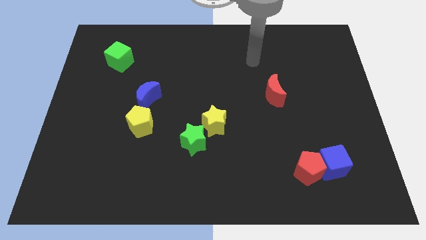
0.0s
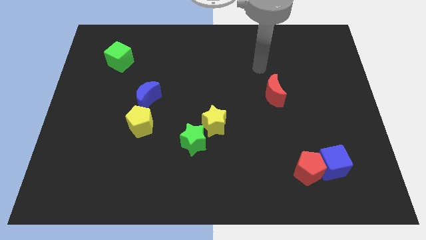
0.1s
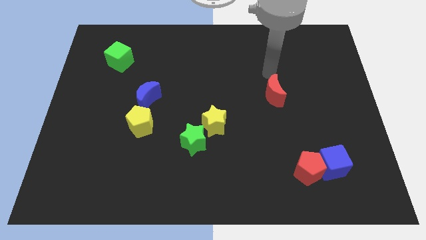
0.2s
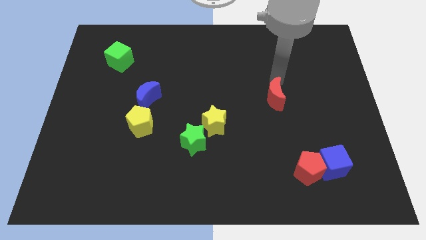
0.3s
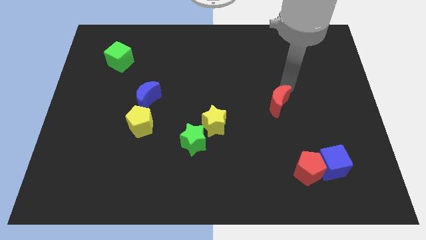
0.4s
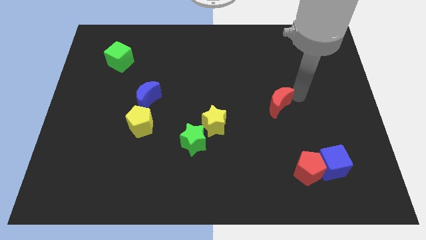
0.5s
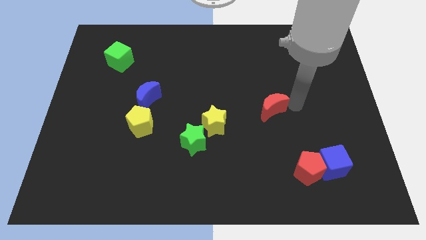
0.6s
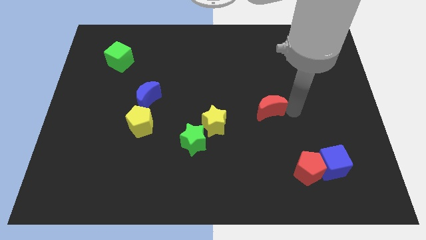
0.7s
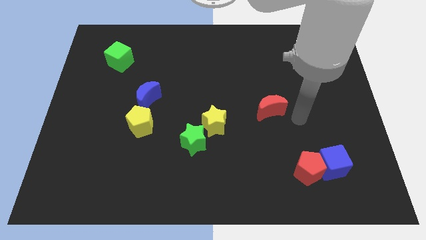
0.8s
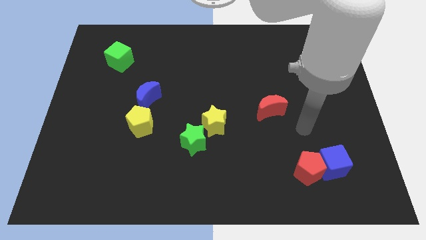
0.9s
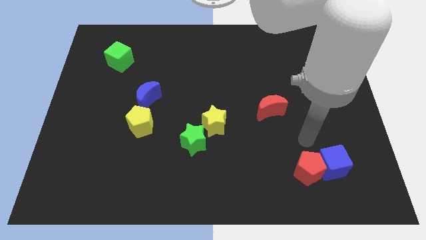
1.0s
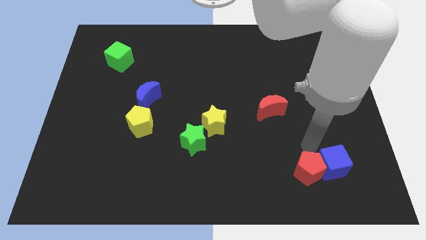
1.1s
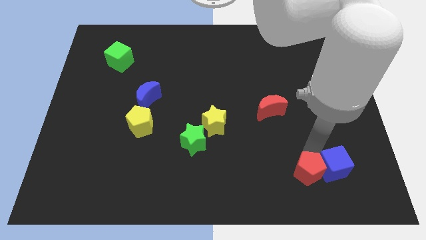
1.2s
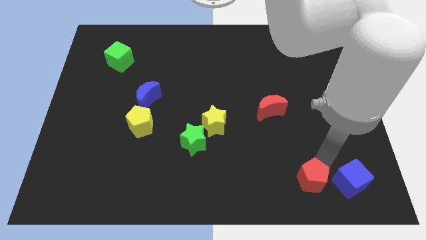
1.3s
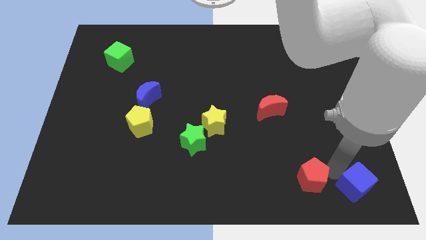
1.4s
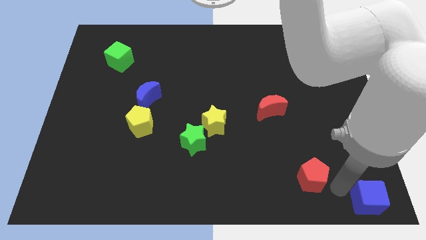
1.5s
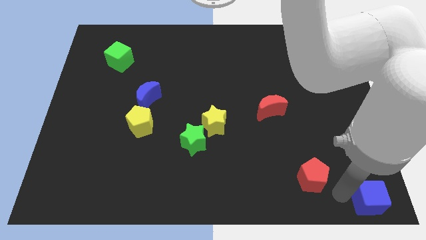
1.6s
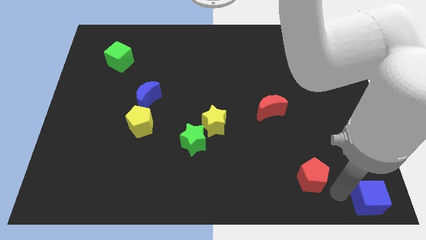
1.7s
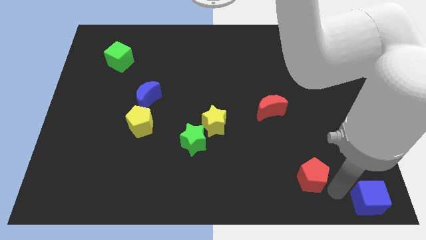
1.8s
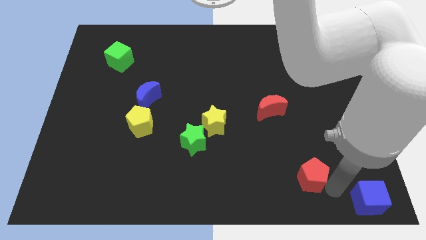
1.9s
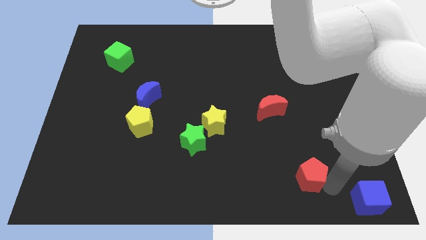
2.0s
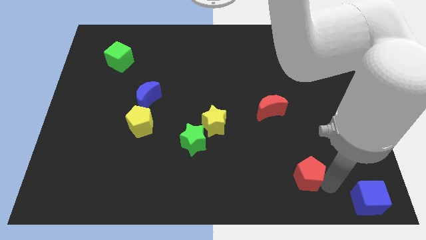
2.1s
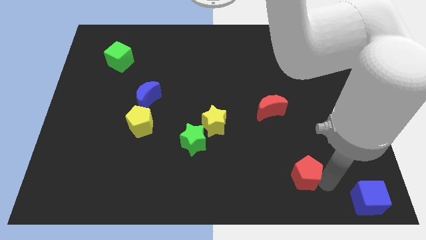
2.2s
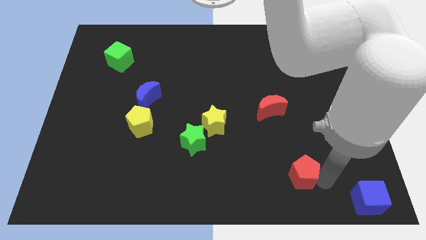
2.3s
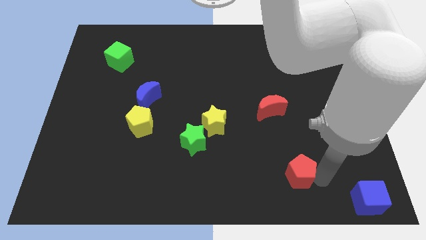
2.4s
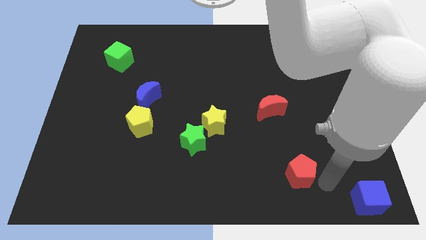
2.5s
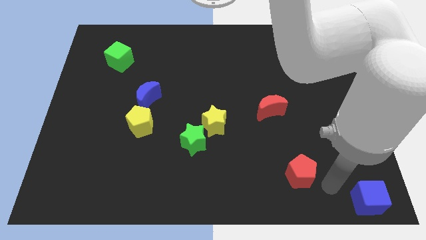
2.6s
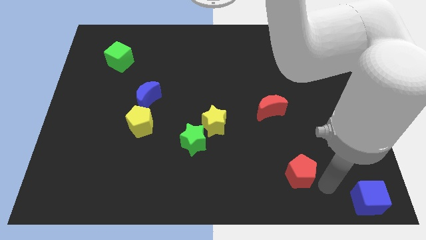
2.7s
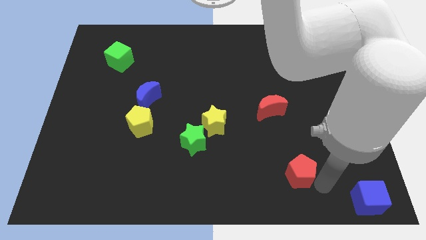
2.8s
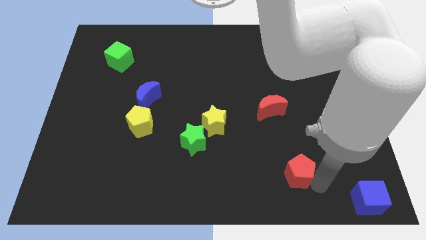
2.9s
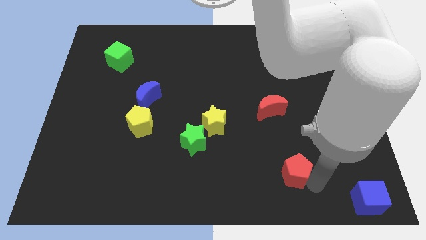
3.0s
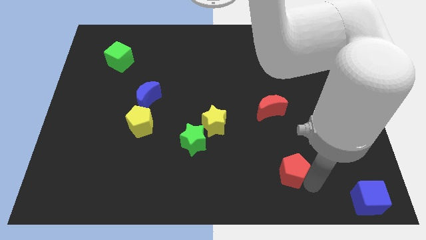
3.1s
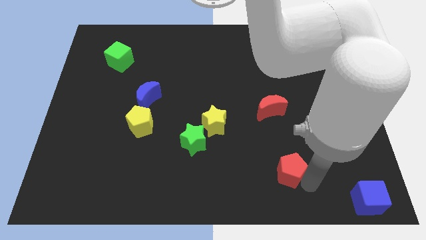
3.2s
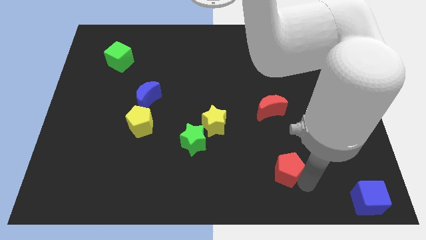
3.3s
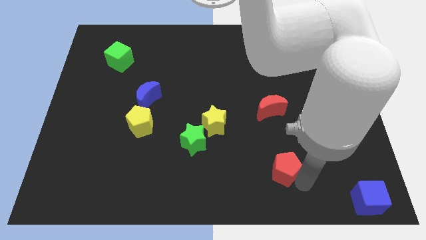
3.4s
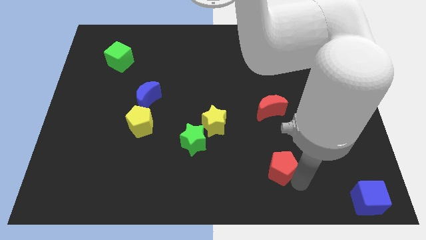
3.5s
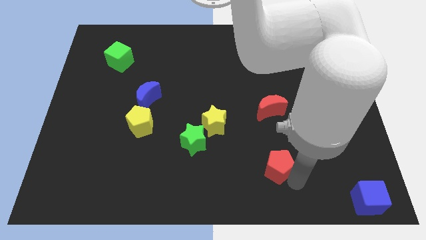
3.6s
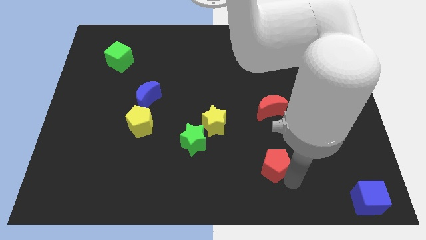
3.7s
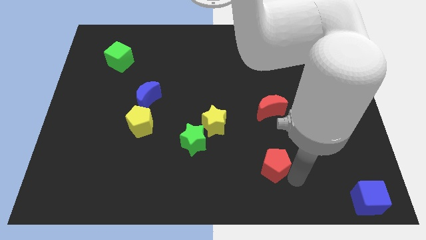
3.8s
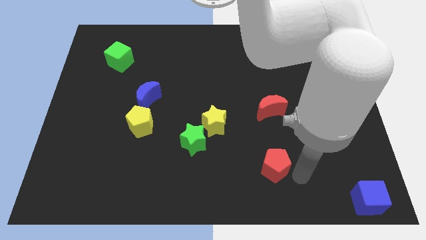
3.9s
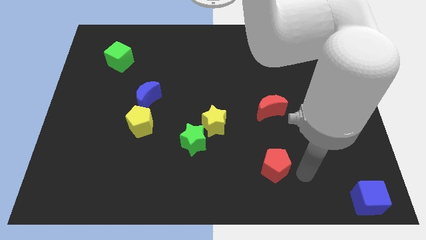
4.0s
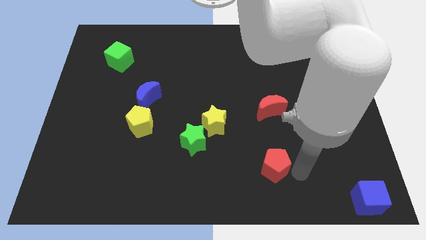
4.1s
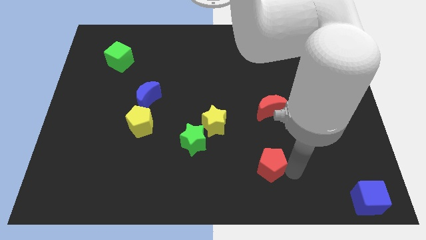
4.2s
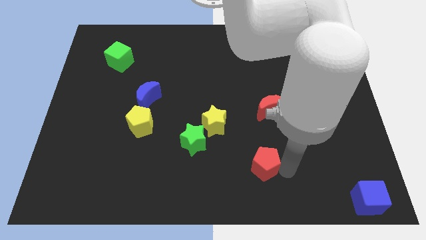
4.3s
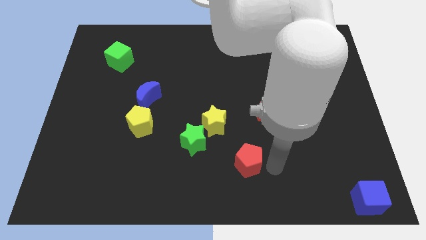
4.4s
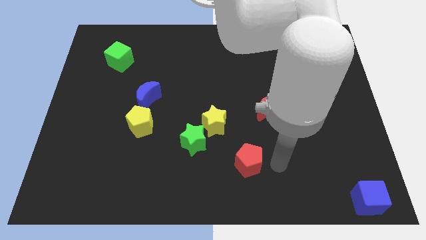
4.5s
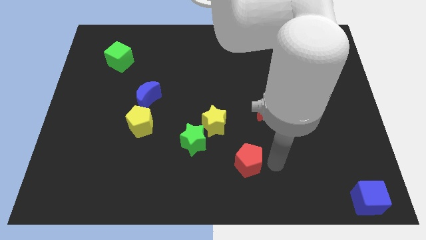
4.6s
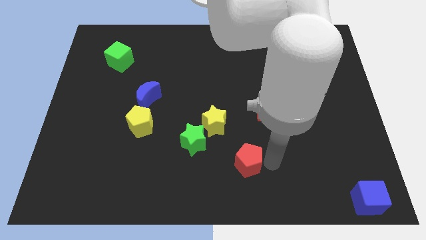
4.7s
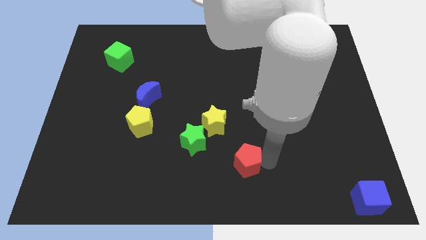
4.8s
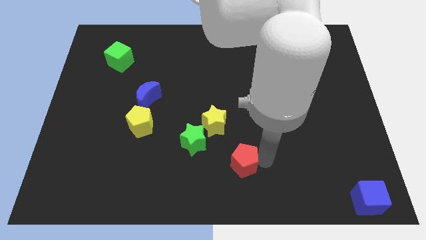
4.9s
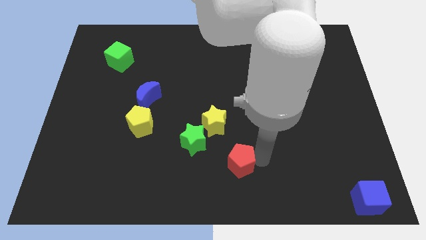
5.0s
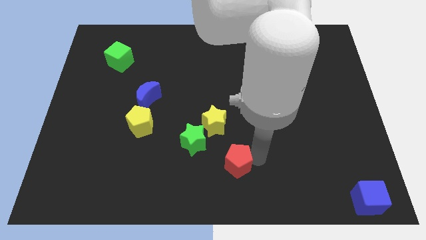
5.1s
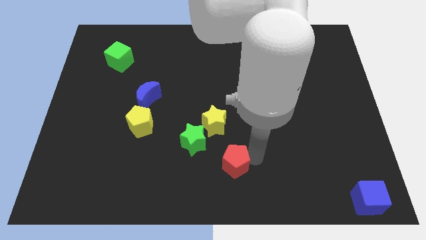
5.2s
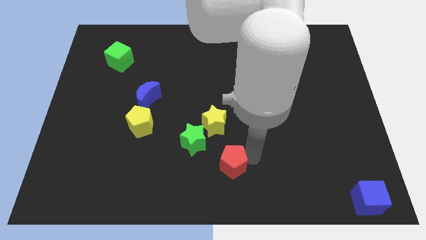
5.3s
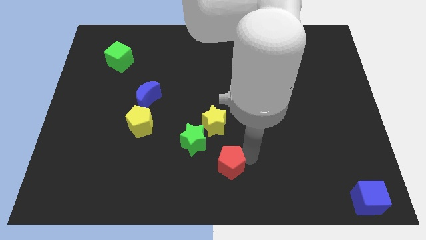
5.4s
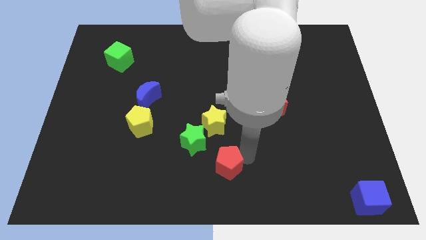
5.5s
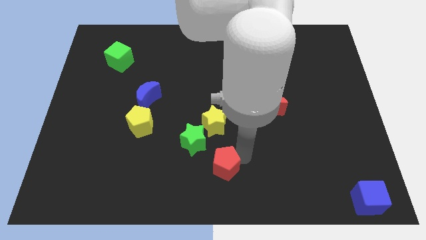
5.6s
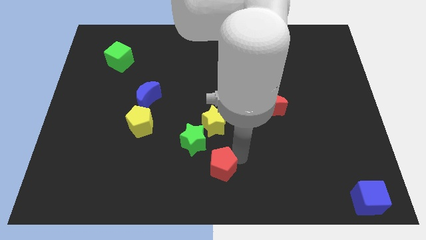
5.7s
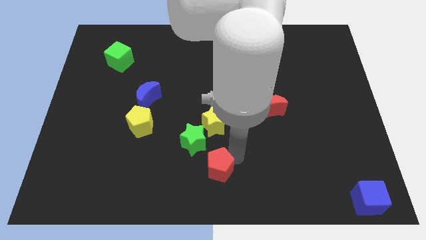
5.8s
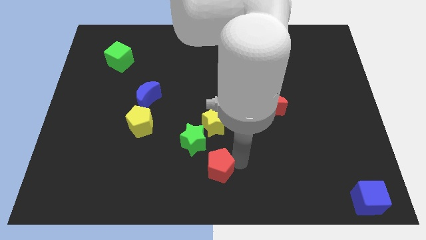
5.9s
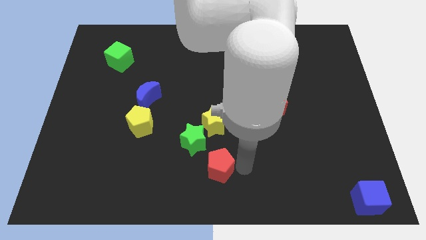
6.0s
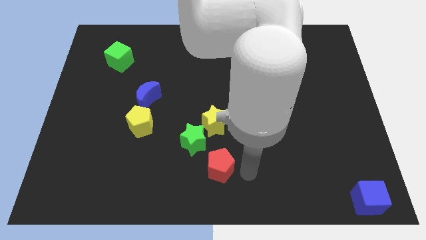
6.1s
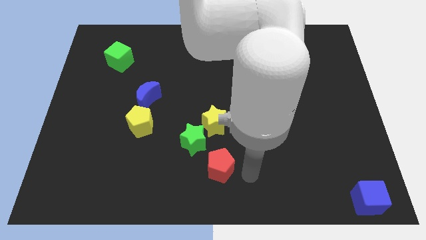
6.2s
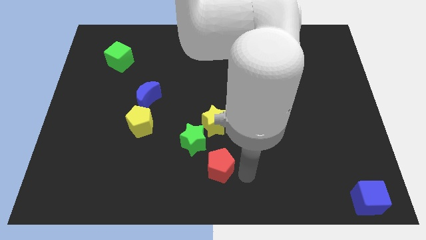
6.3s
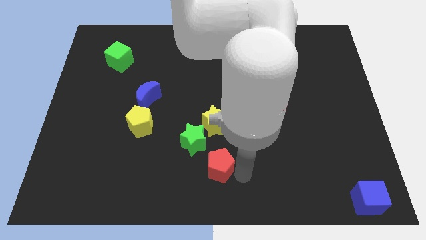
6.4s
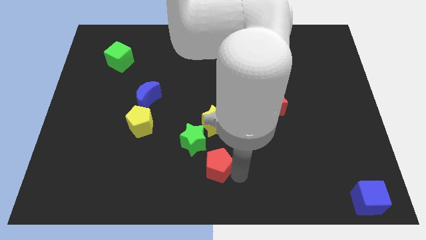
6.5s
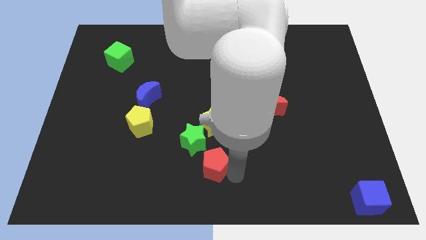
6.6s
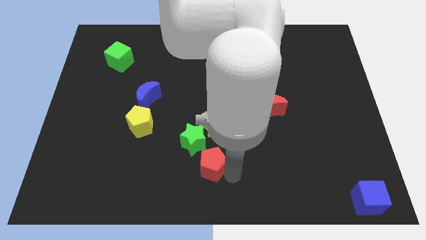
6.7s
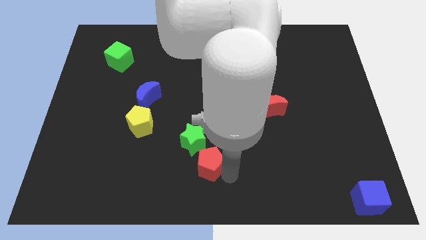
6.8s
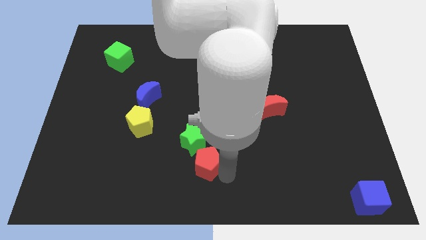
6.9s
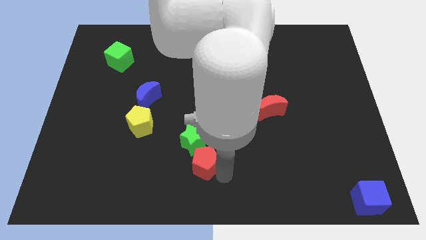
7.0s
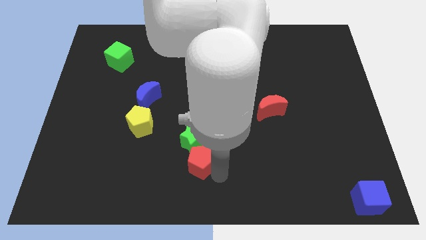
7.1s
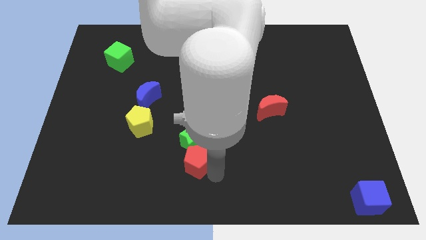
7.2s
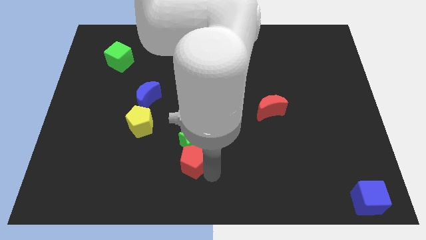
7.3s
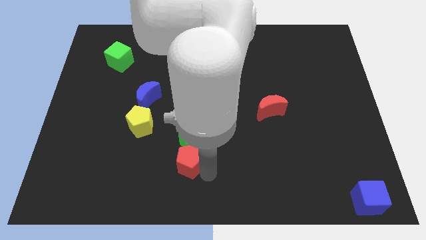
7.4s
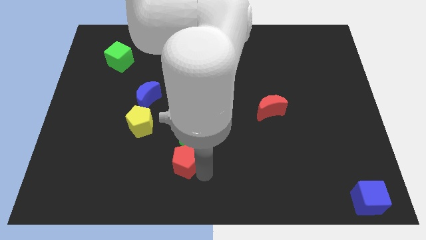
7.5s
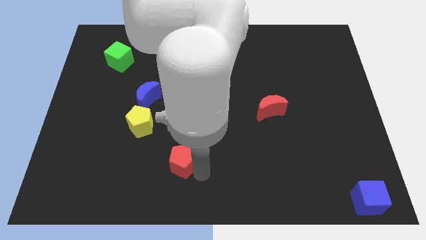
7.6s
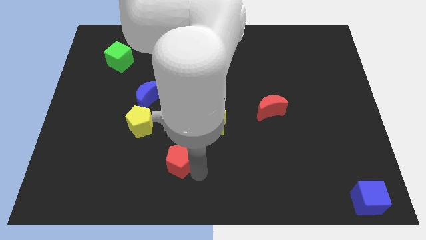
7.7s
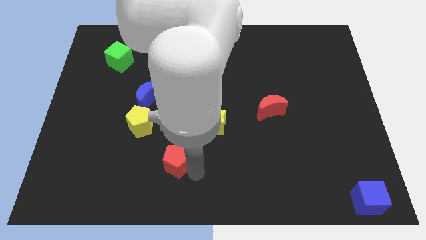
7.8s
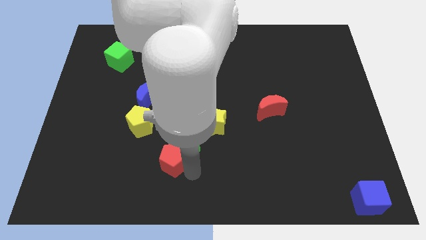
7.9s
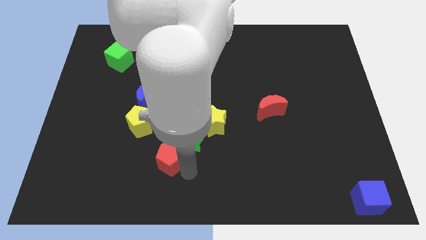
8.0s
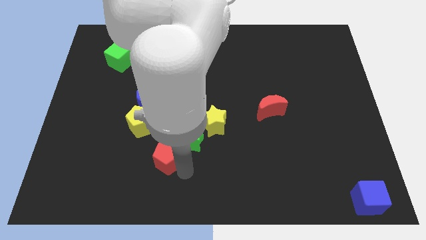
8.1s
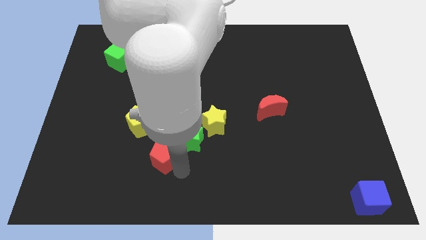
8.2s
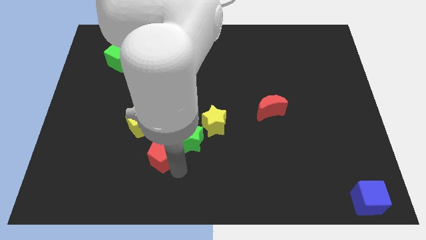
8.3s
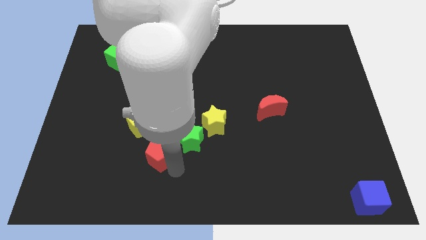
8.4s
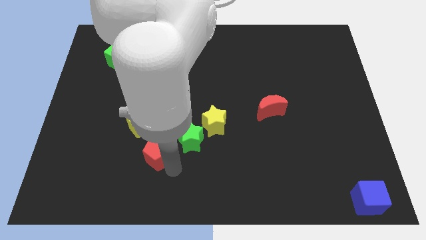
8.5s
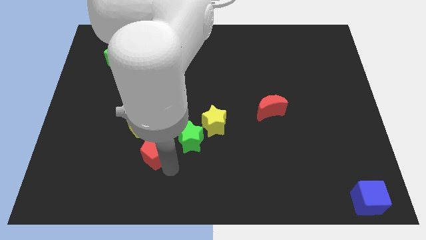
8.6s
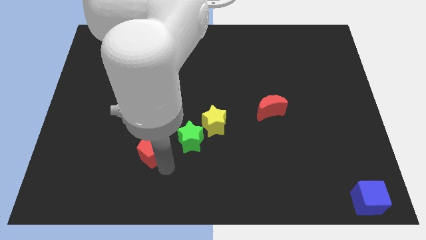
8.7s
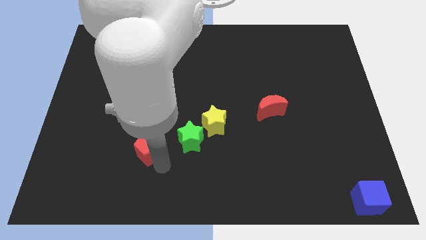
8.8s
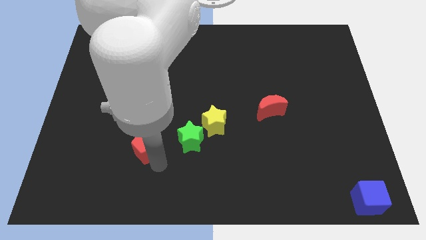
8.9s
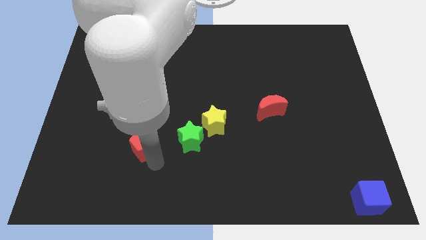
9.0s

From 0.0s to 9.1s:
slide the red pentagon towards the yellow pentagon
